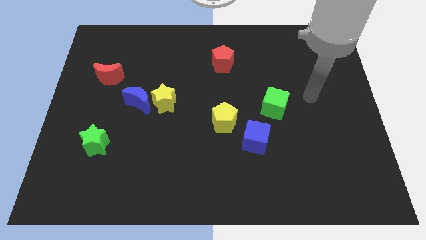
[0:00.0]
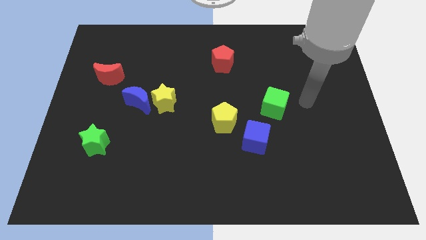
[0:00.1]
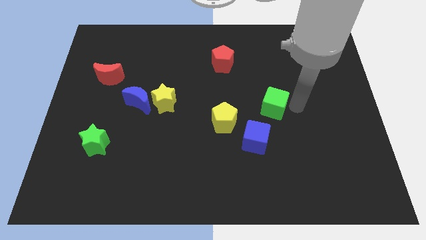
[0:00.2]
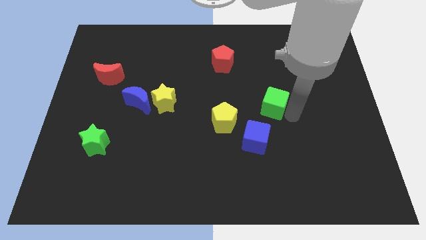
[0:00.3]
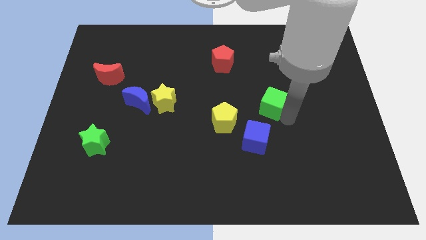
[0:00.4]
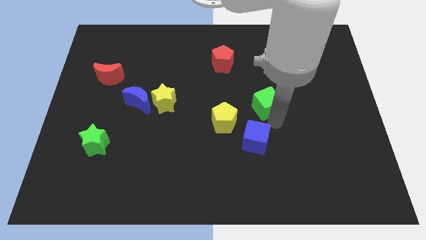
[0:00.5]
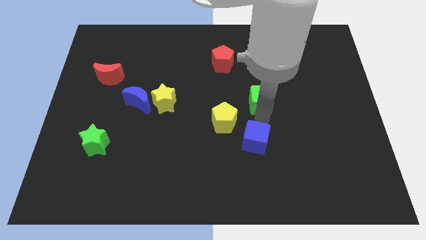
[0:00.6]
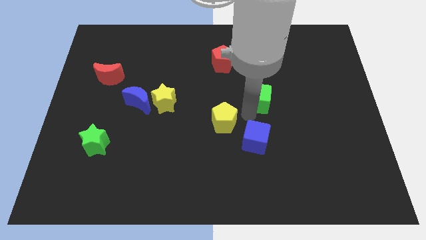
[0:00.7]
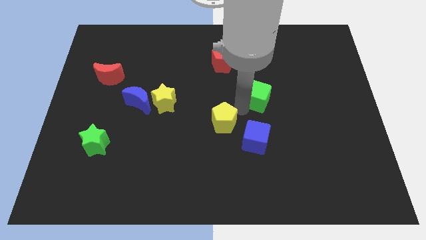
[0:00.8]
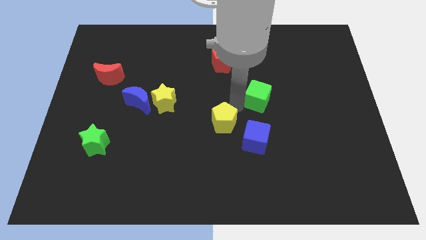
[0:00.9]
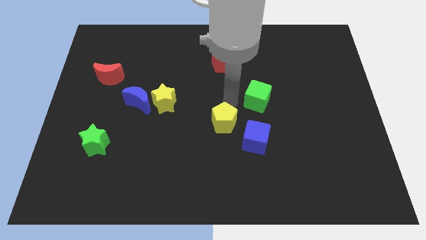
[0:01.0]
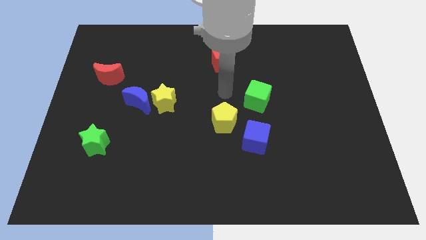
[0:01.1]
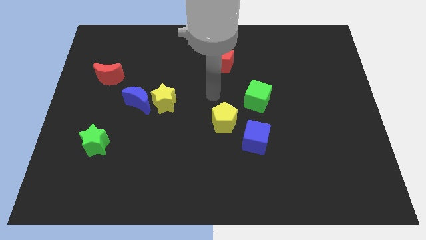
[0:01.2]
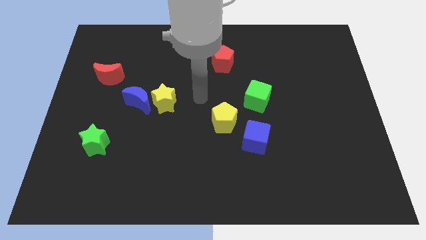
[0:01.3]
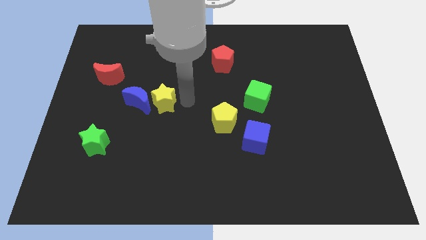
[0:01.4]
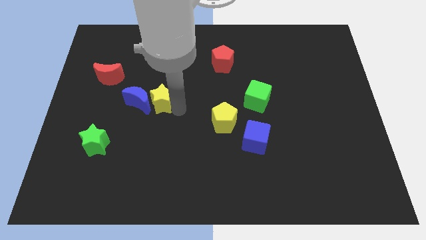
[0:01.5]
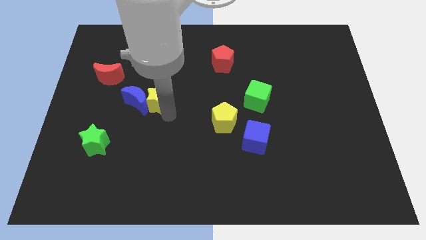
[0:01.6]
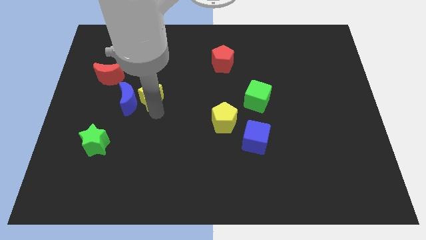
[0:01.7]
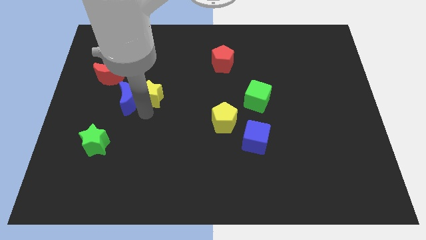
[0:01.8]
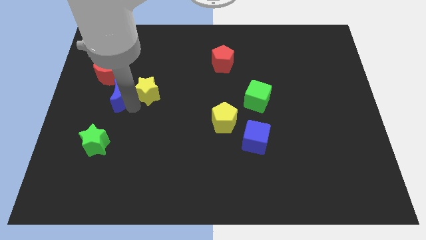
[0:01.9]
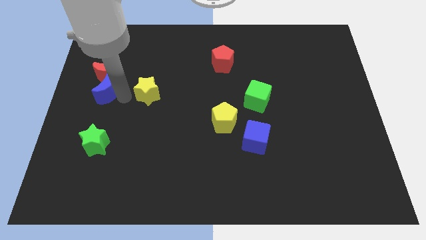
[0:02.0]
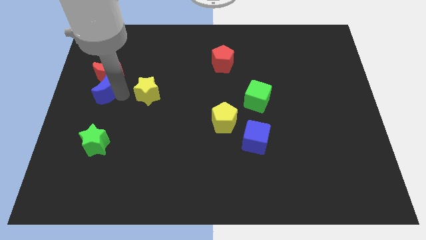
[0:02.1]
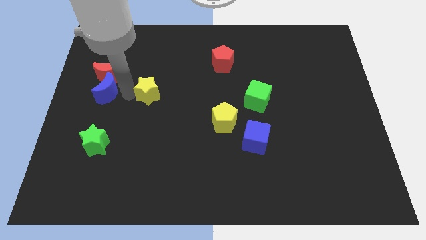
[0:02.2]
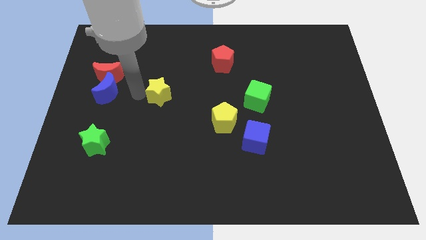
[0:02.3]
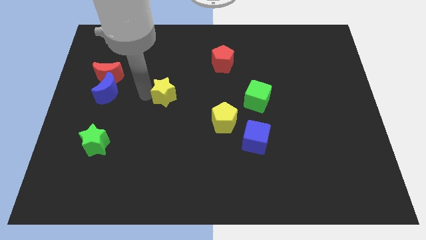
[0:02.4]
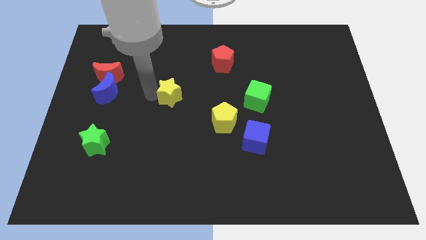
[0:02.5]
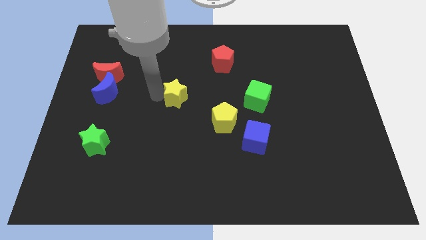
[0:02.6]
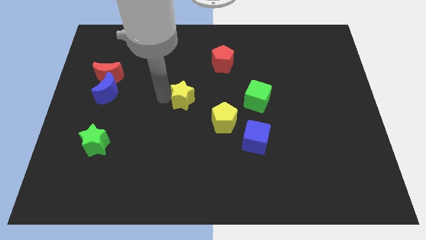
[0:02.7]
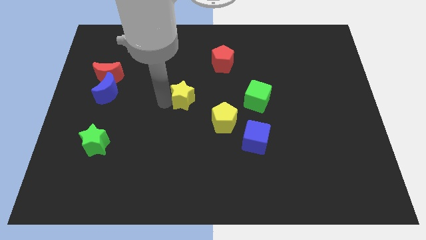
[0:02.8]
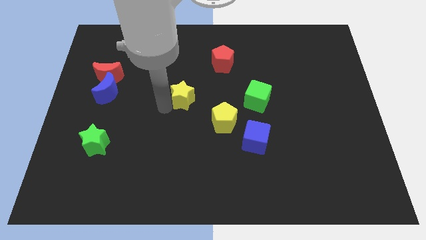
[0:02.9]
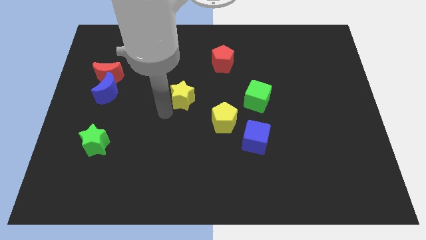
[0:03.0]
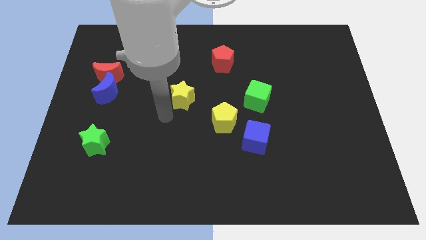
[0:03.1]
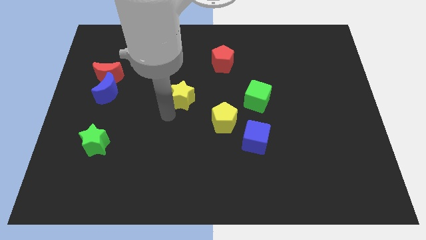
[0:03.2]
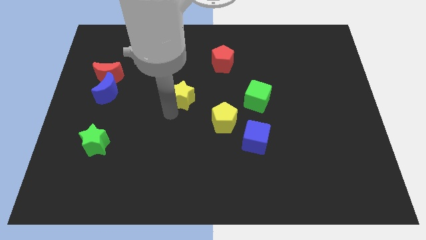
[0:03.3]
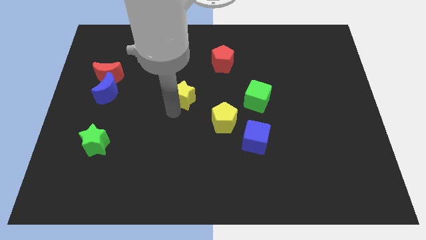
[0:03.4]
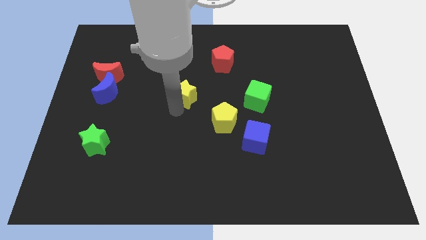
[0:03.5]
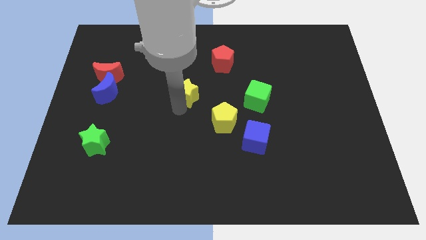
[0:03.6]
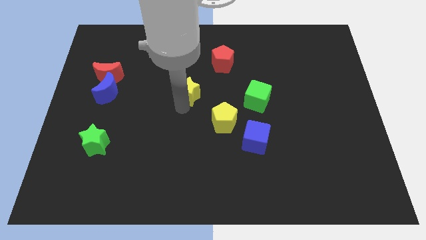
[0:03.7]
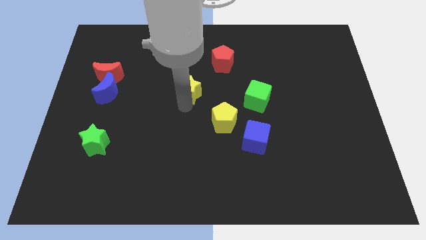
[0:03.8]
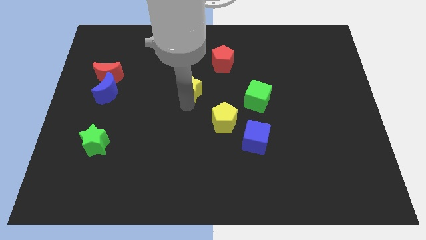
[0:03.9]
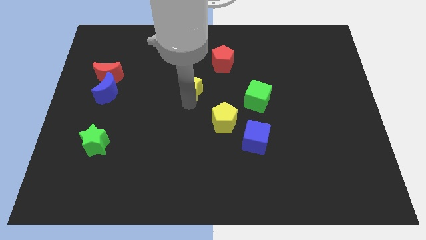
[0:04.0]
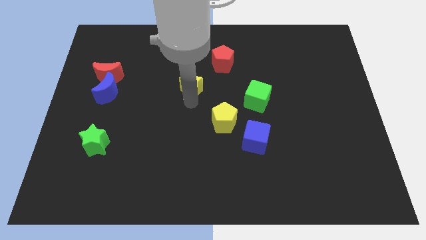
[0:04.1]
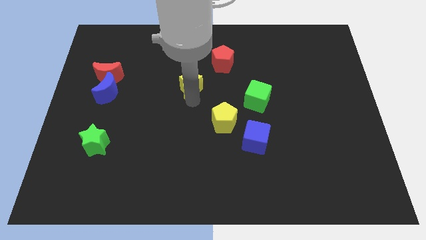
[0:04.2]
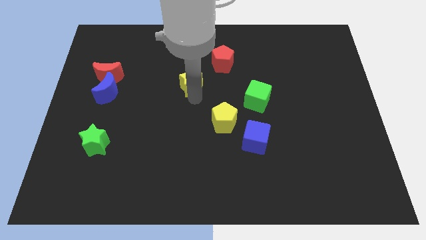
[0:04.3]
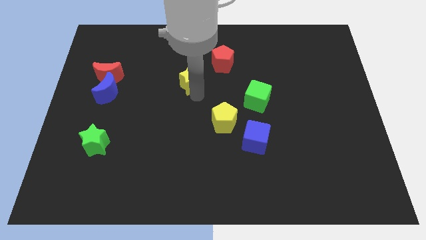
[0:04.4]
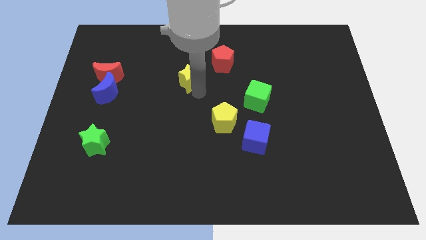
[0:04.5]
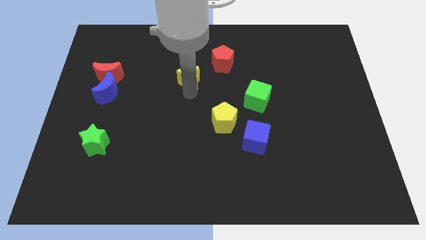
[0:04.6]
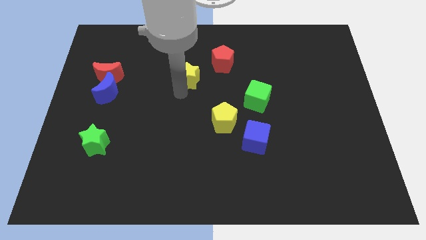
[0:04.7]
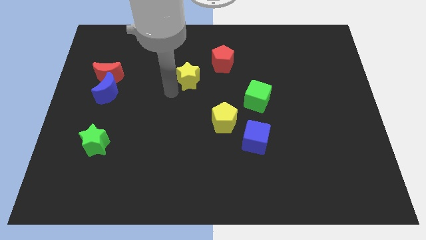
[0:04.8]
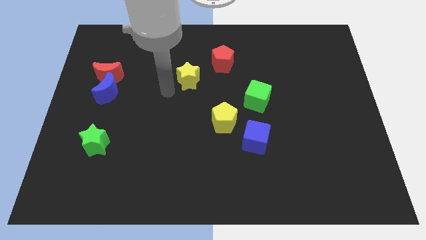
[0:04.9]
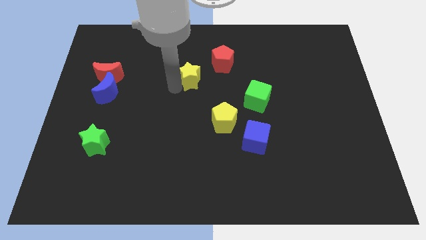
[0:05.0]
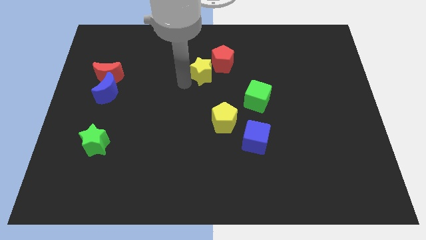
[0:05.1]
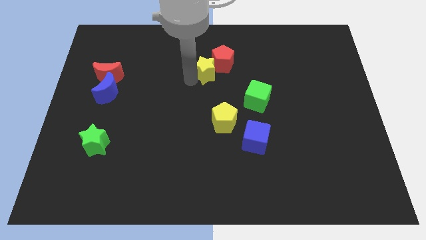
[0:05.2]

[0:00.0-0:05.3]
push the yellow star close to the red pentagon

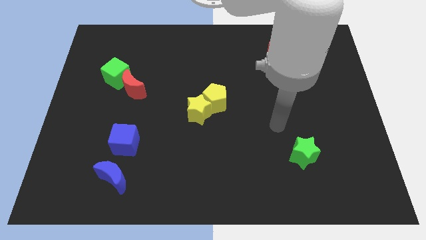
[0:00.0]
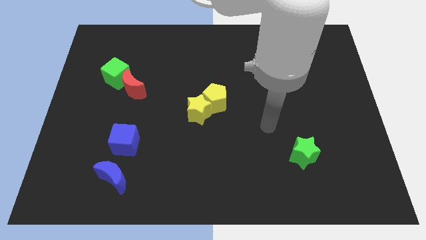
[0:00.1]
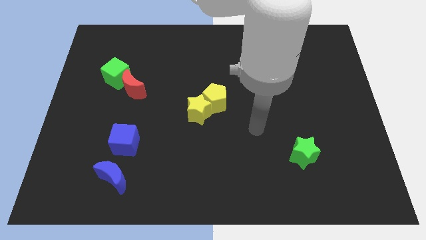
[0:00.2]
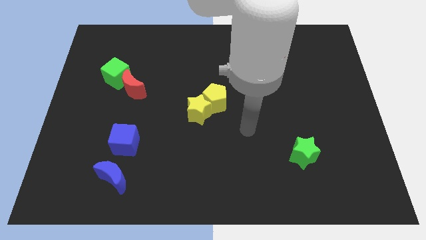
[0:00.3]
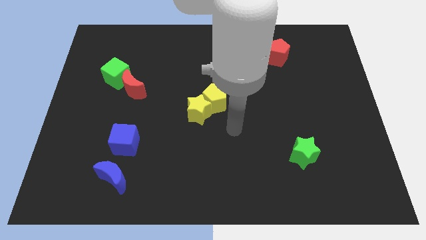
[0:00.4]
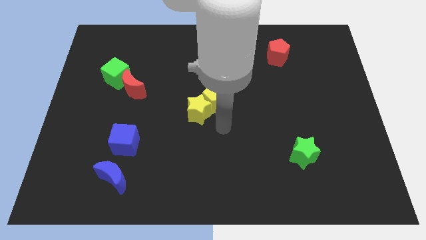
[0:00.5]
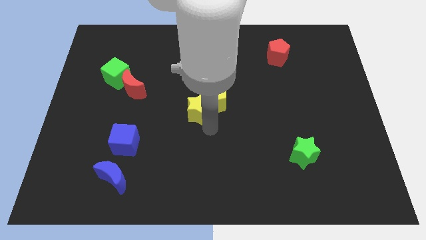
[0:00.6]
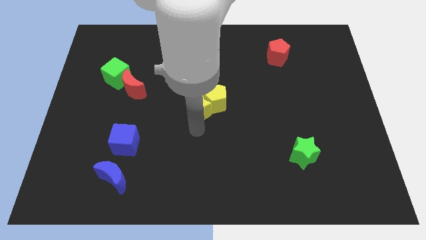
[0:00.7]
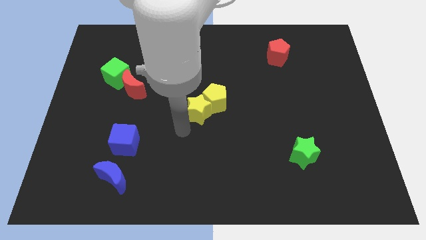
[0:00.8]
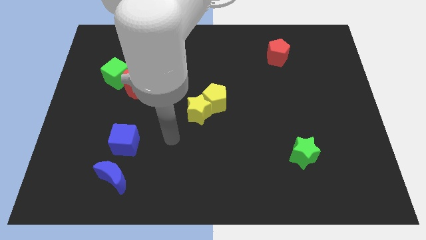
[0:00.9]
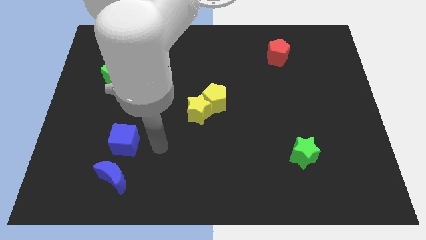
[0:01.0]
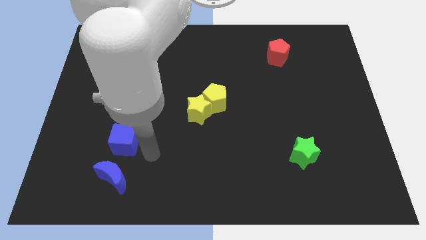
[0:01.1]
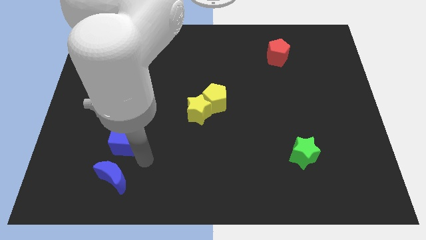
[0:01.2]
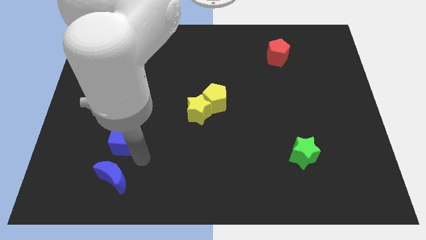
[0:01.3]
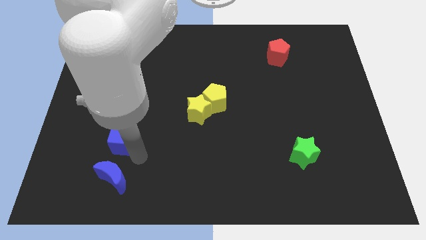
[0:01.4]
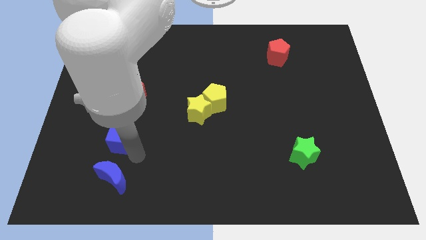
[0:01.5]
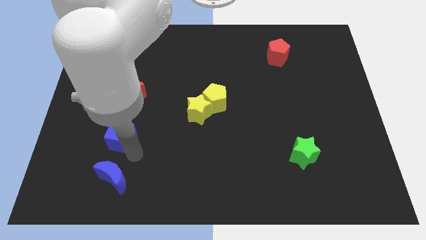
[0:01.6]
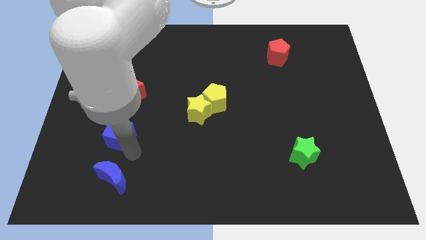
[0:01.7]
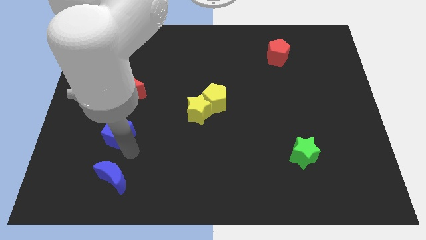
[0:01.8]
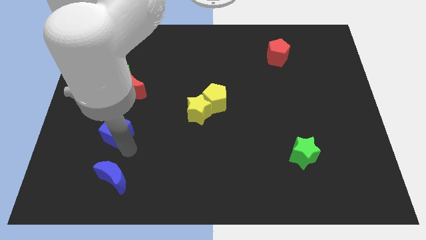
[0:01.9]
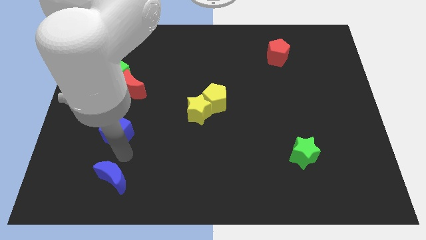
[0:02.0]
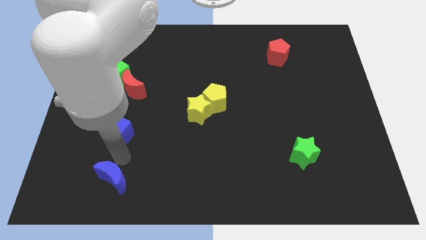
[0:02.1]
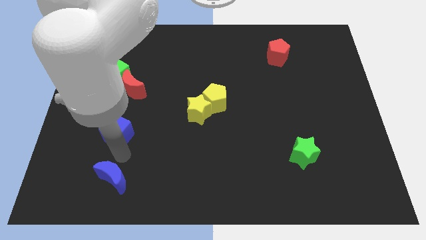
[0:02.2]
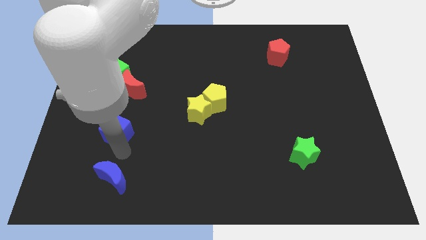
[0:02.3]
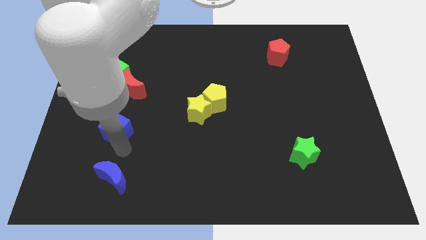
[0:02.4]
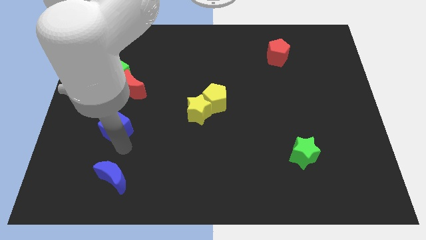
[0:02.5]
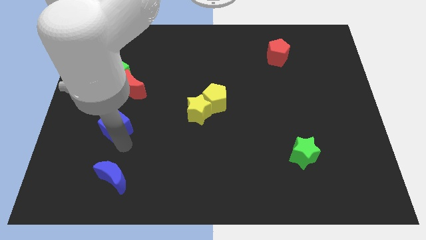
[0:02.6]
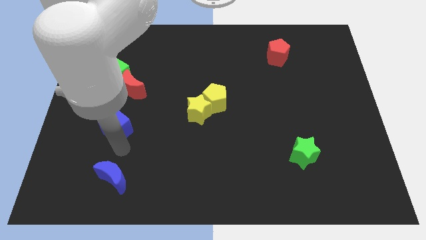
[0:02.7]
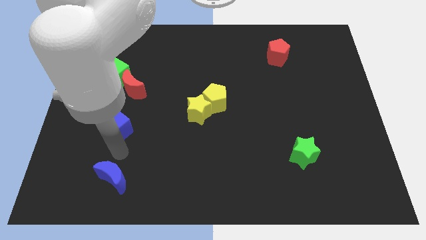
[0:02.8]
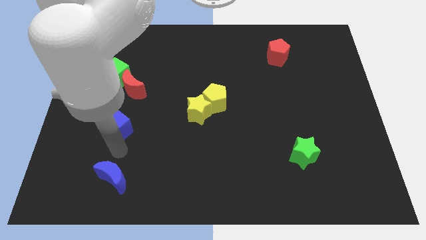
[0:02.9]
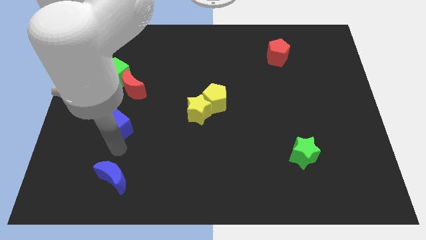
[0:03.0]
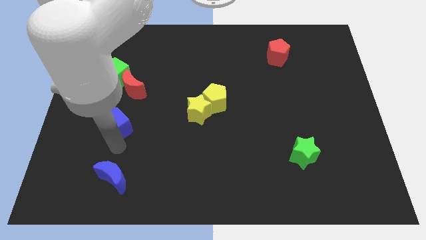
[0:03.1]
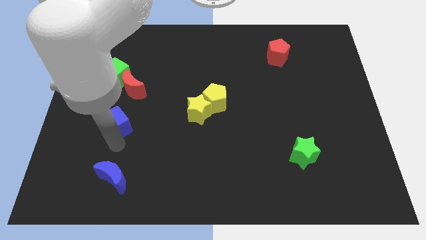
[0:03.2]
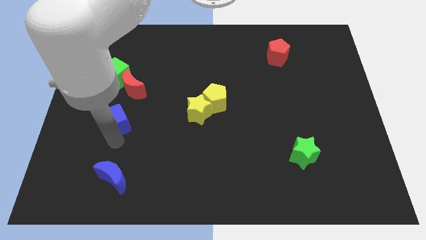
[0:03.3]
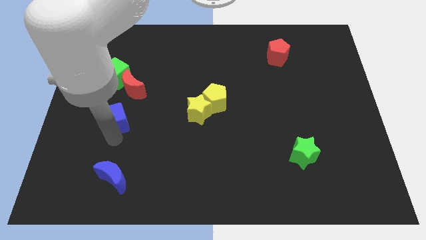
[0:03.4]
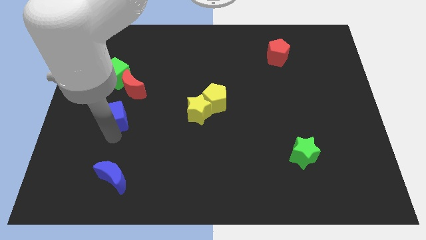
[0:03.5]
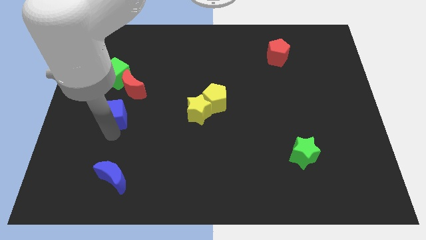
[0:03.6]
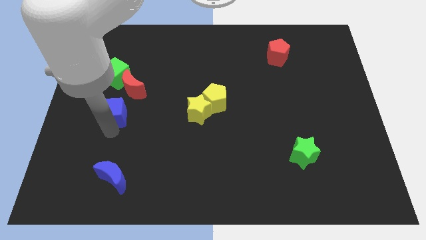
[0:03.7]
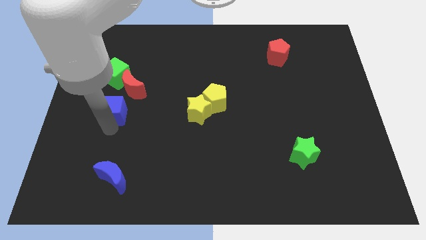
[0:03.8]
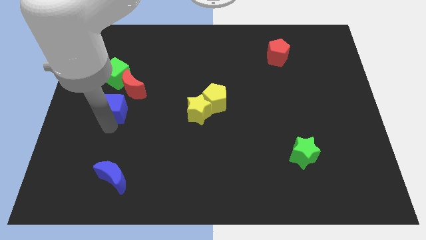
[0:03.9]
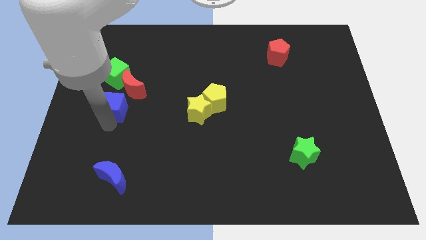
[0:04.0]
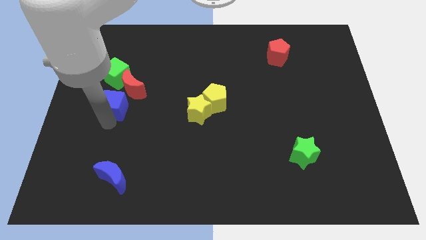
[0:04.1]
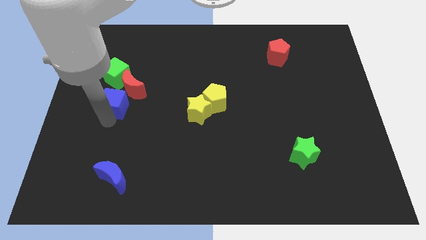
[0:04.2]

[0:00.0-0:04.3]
move the blue cube next to the red moon
